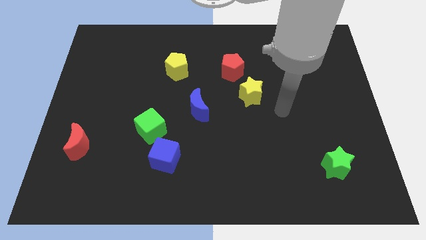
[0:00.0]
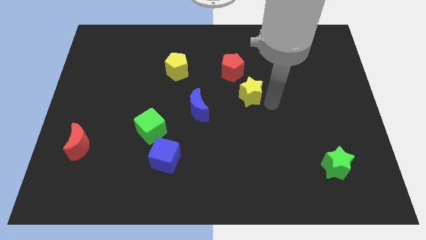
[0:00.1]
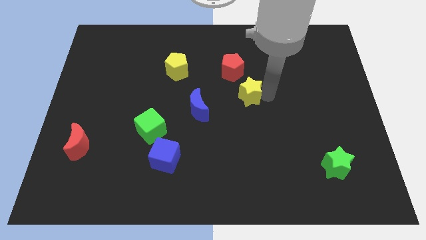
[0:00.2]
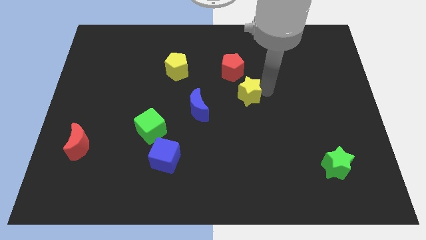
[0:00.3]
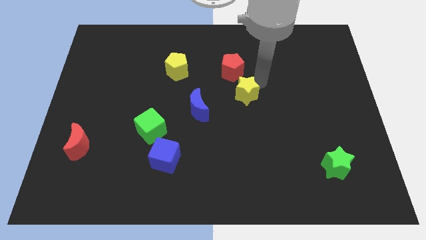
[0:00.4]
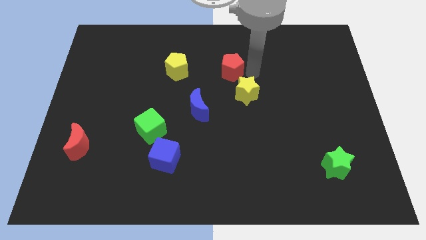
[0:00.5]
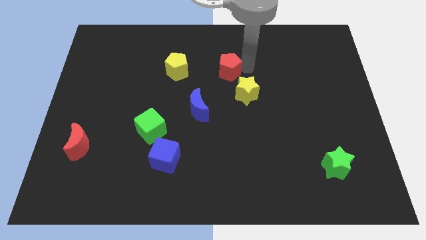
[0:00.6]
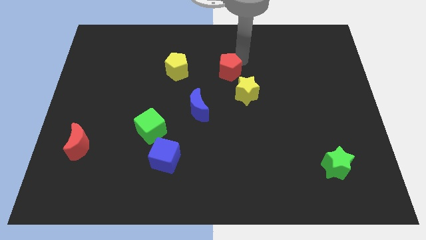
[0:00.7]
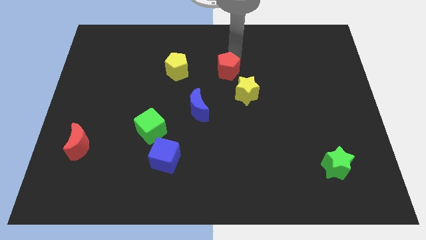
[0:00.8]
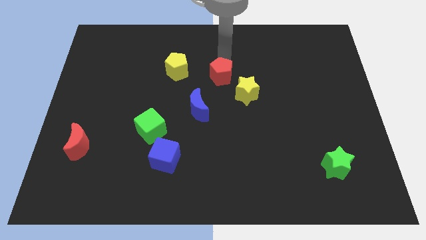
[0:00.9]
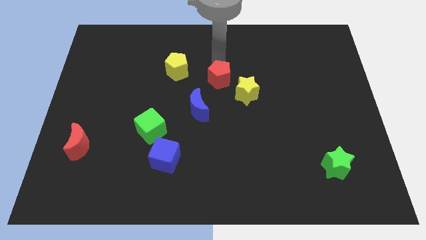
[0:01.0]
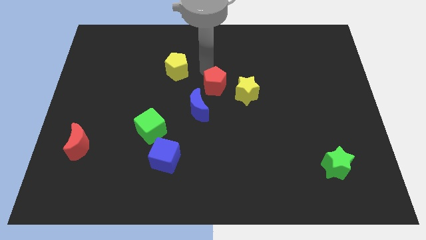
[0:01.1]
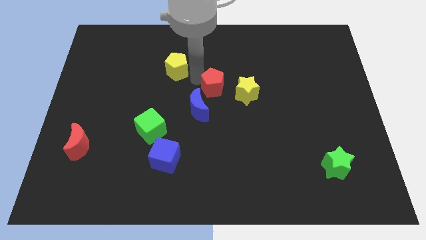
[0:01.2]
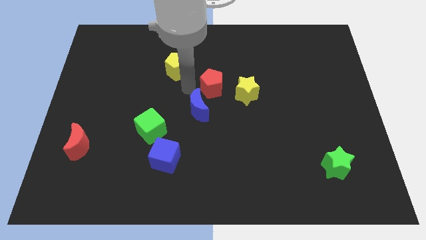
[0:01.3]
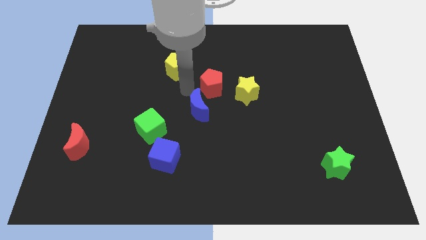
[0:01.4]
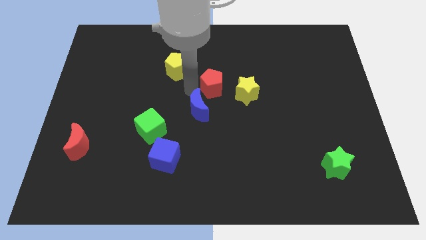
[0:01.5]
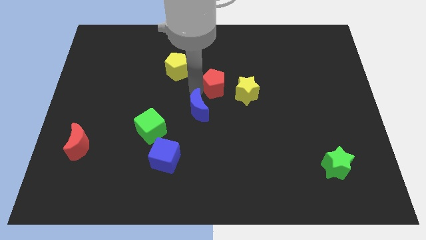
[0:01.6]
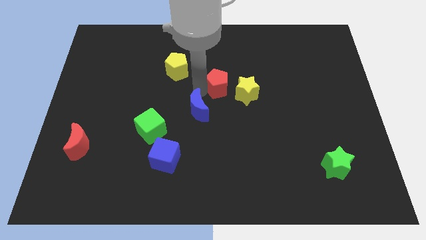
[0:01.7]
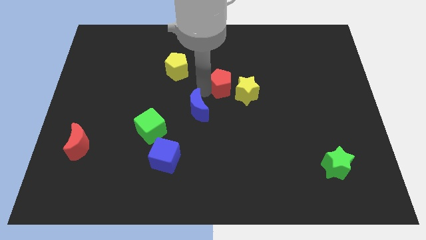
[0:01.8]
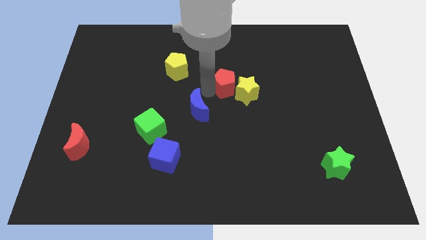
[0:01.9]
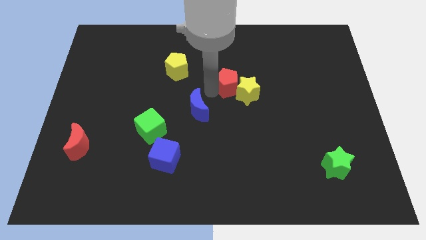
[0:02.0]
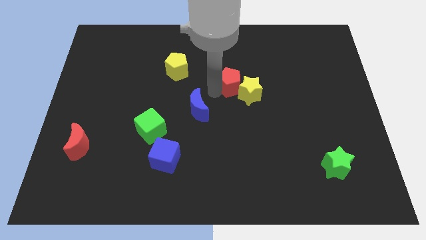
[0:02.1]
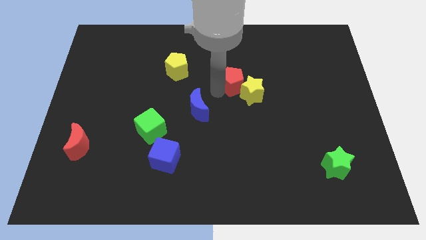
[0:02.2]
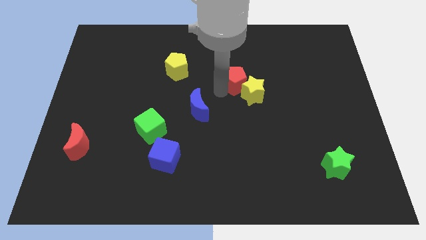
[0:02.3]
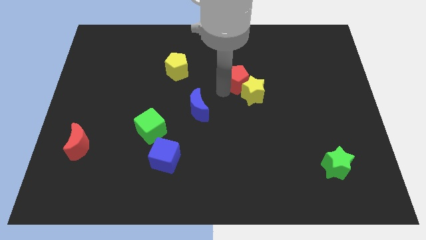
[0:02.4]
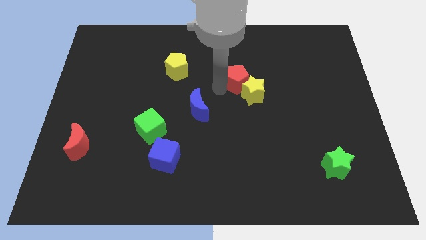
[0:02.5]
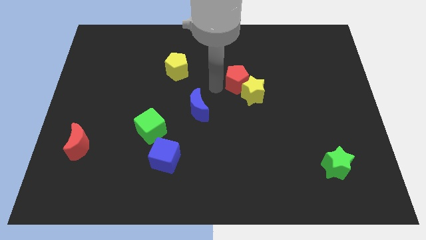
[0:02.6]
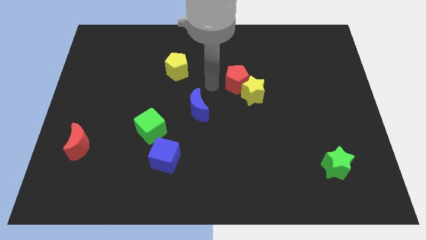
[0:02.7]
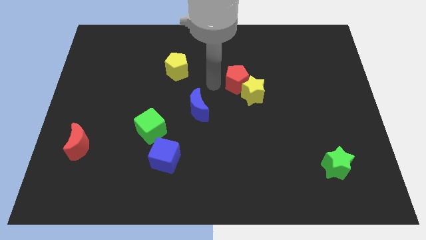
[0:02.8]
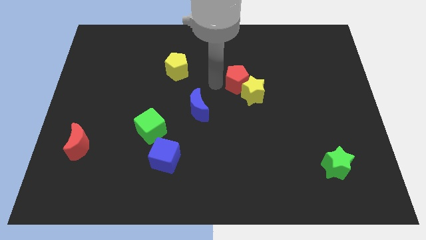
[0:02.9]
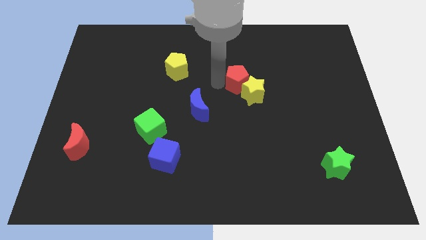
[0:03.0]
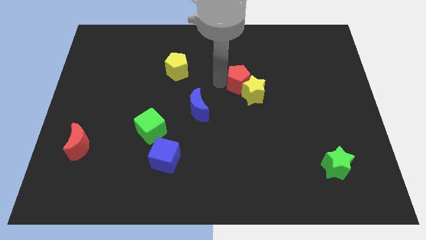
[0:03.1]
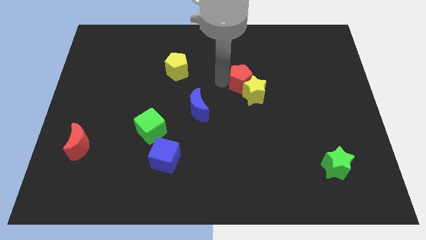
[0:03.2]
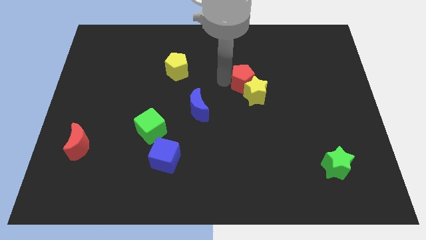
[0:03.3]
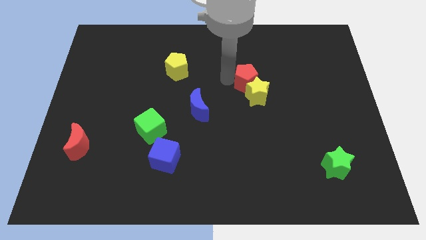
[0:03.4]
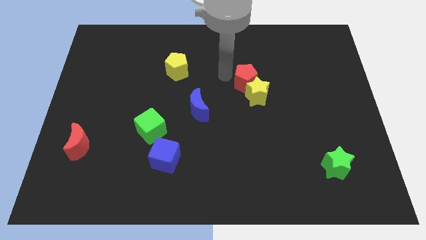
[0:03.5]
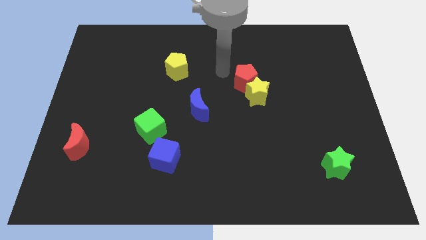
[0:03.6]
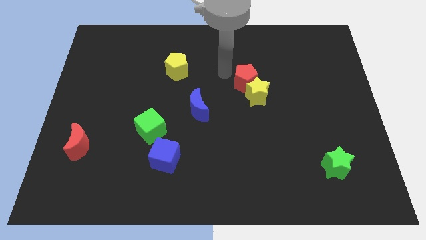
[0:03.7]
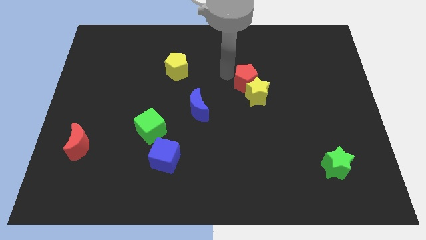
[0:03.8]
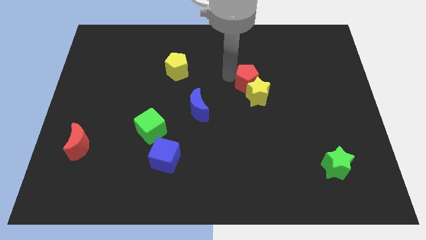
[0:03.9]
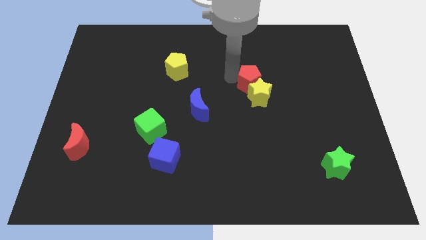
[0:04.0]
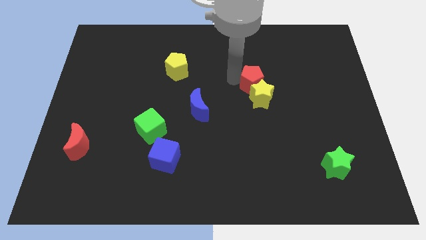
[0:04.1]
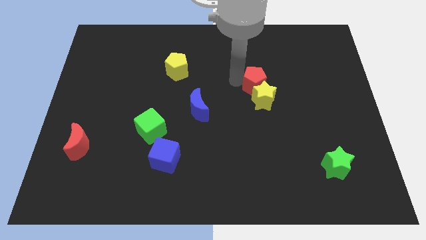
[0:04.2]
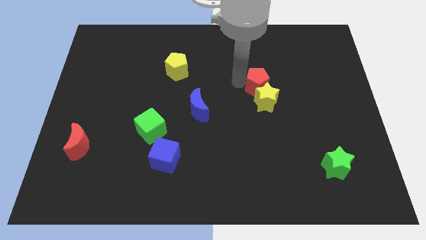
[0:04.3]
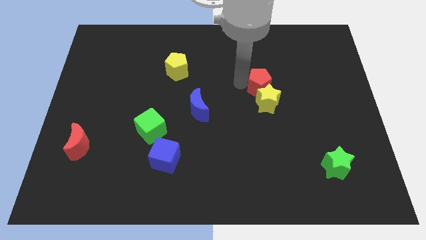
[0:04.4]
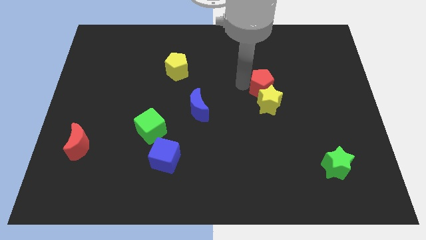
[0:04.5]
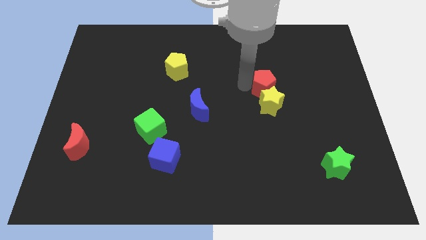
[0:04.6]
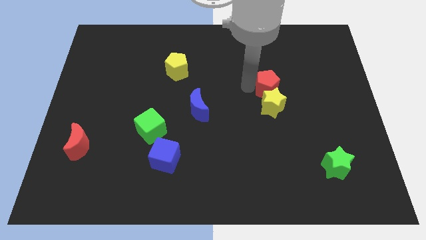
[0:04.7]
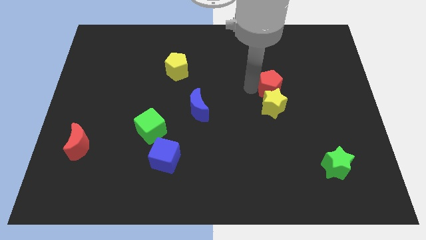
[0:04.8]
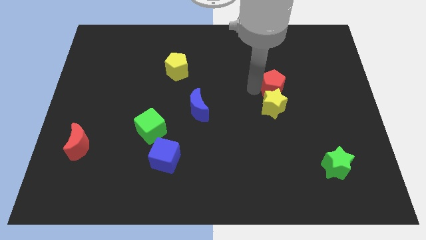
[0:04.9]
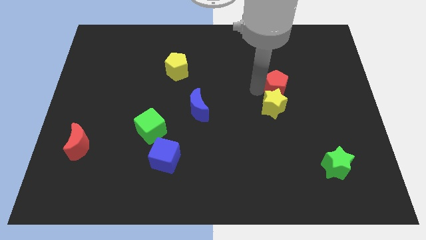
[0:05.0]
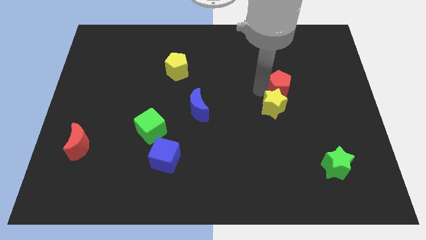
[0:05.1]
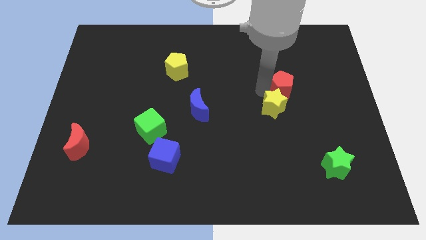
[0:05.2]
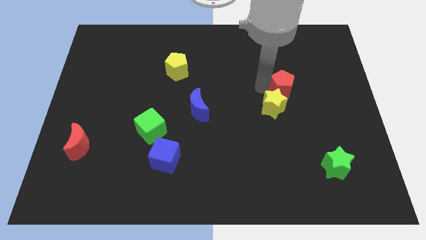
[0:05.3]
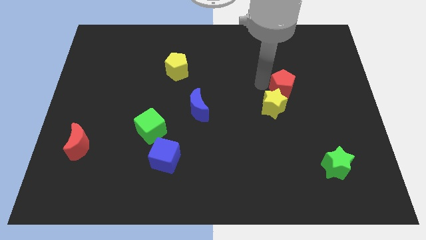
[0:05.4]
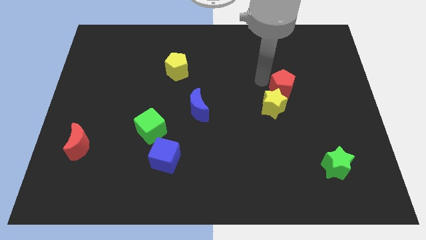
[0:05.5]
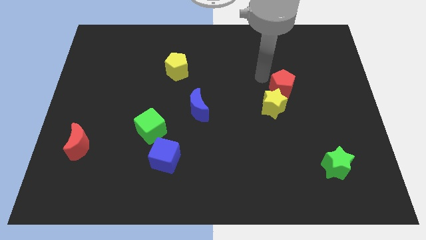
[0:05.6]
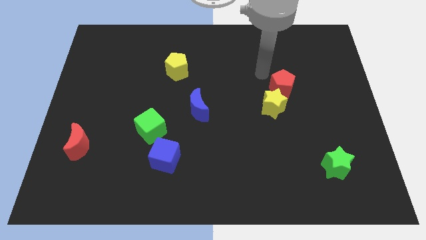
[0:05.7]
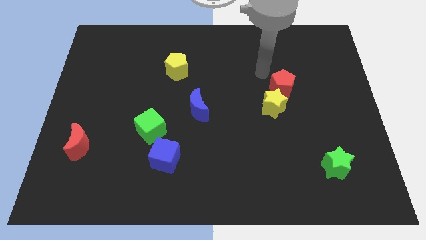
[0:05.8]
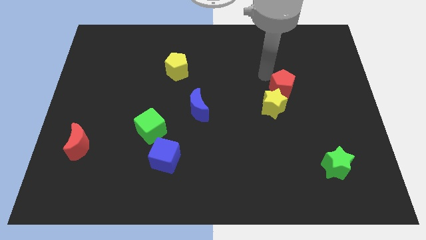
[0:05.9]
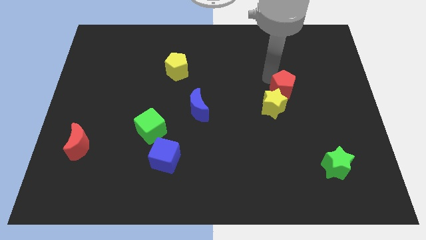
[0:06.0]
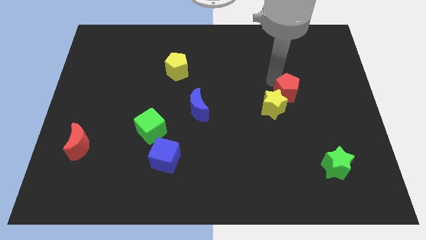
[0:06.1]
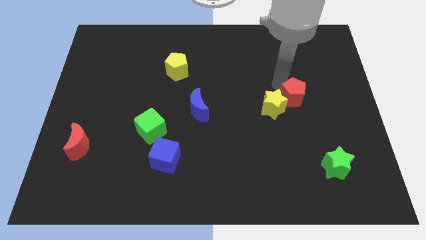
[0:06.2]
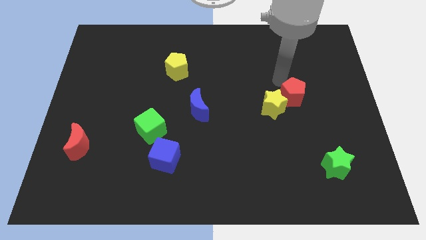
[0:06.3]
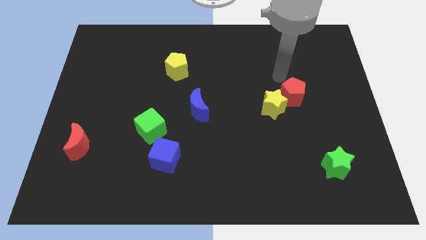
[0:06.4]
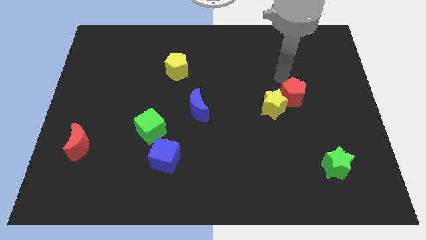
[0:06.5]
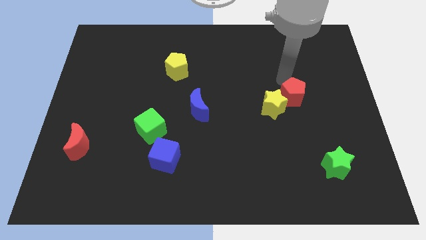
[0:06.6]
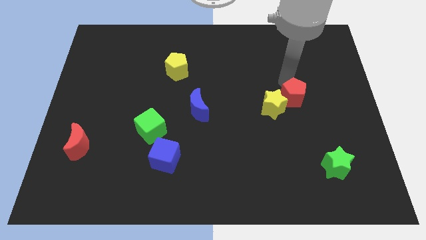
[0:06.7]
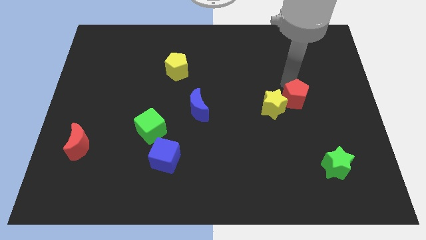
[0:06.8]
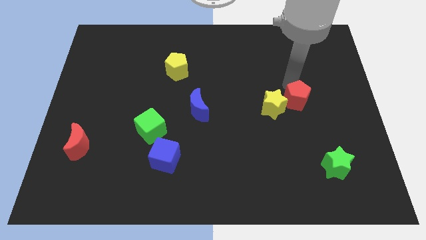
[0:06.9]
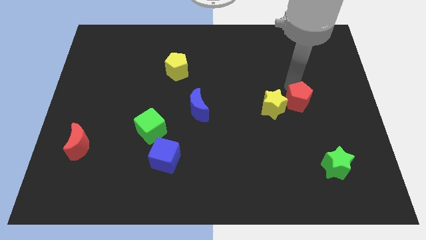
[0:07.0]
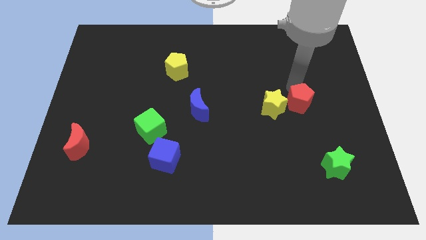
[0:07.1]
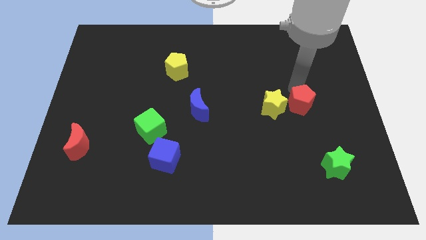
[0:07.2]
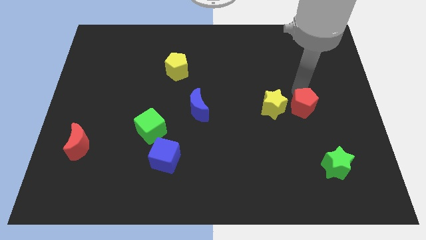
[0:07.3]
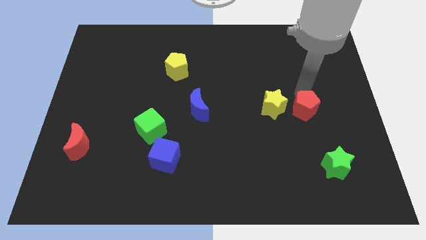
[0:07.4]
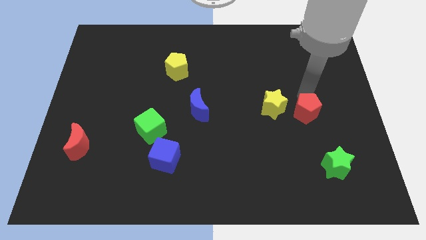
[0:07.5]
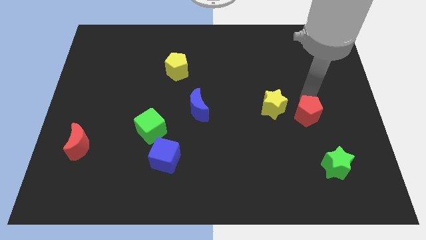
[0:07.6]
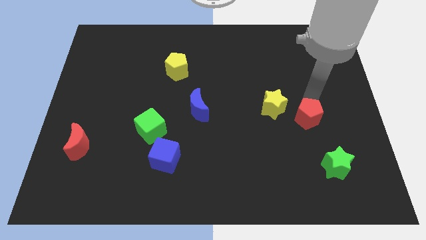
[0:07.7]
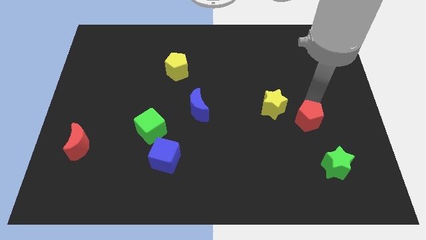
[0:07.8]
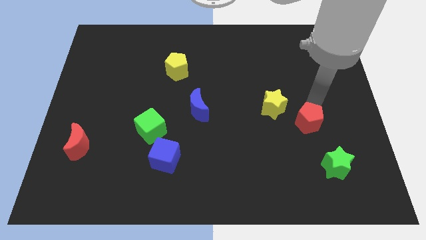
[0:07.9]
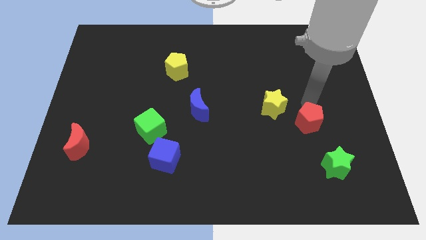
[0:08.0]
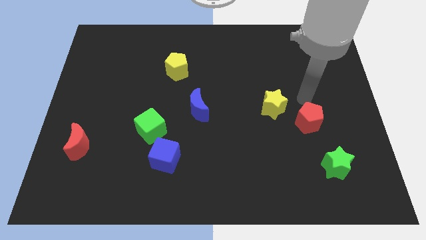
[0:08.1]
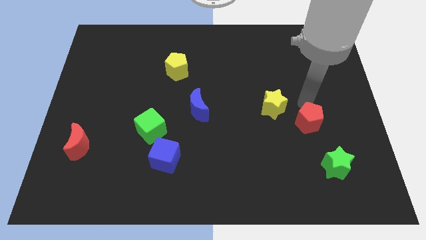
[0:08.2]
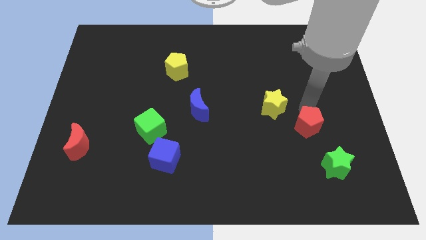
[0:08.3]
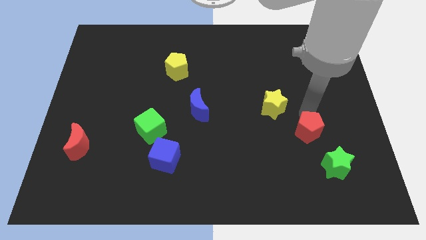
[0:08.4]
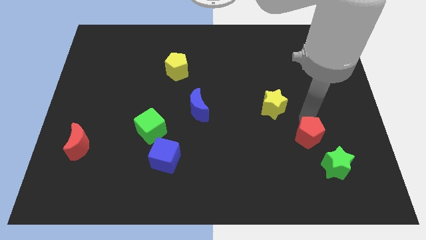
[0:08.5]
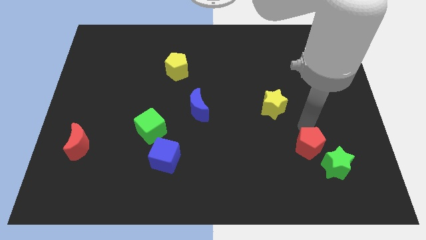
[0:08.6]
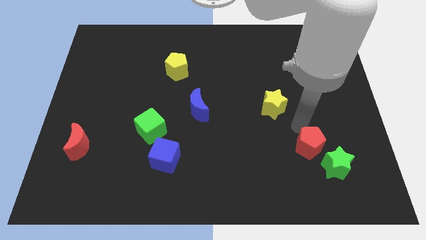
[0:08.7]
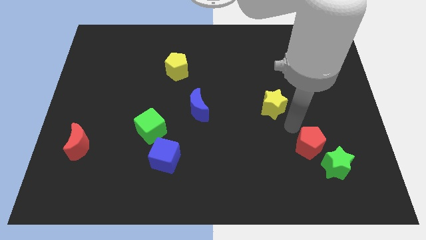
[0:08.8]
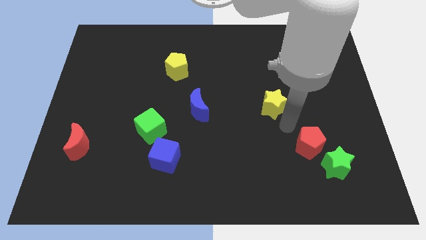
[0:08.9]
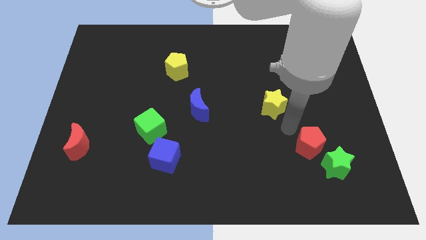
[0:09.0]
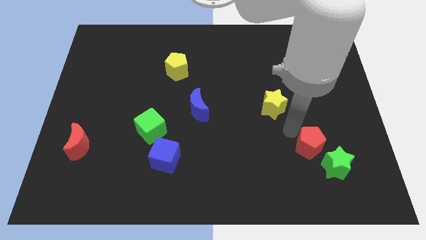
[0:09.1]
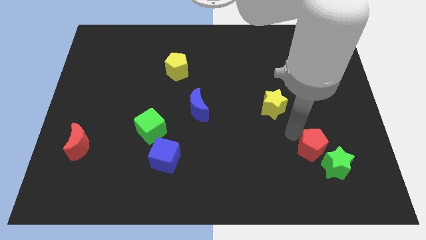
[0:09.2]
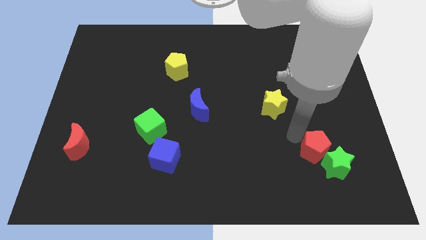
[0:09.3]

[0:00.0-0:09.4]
move the red pentagon towards the green star
